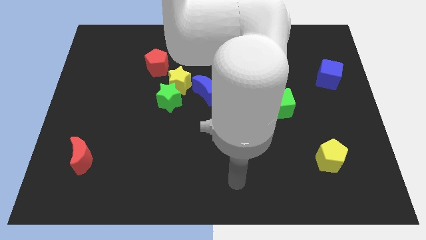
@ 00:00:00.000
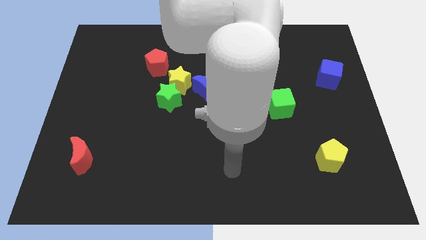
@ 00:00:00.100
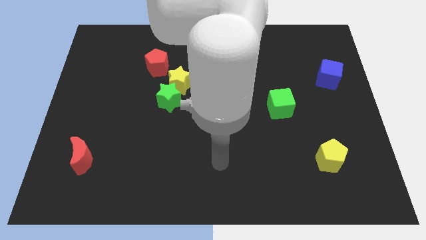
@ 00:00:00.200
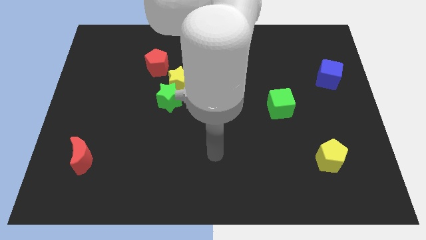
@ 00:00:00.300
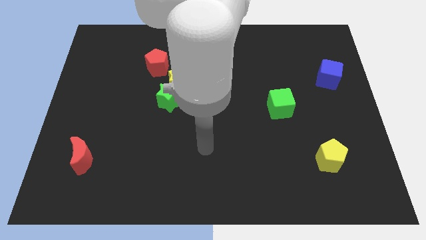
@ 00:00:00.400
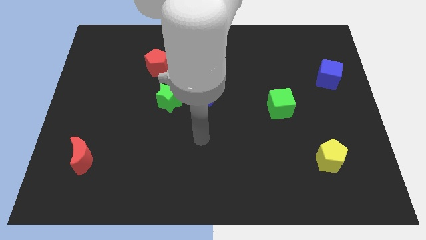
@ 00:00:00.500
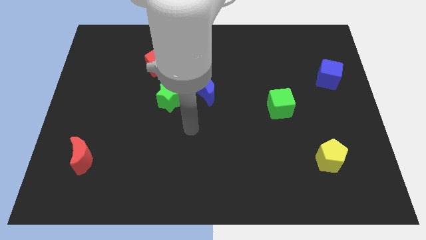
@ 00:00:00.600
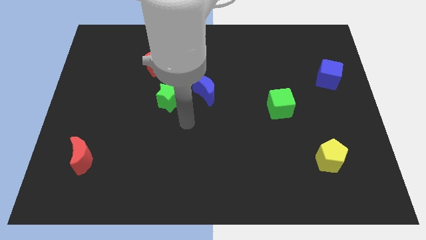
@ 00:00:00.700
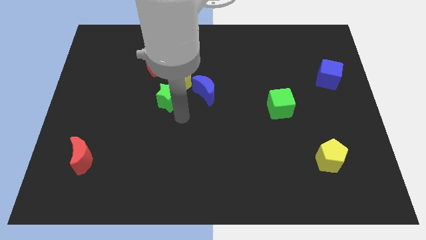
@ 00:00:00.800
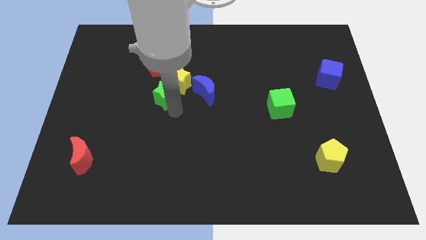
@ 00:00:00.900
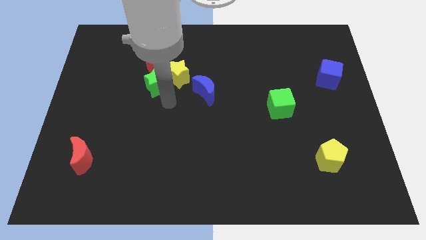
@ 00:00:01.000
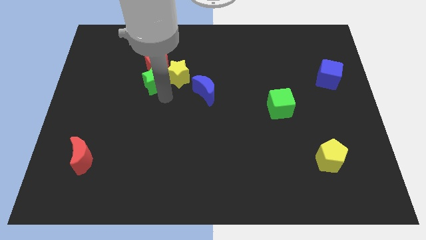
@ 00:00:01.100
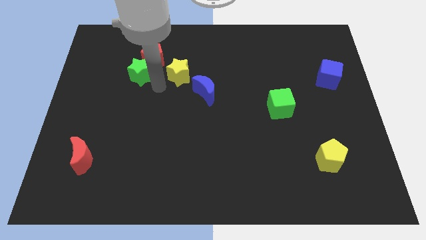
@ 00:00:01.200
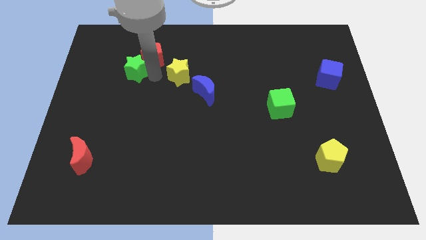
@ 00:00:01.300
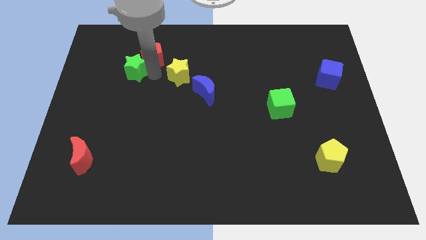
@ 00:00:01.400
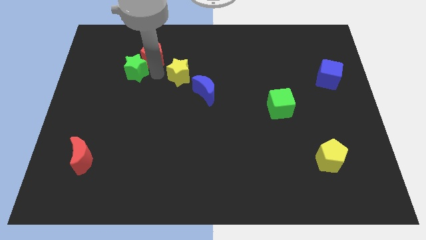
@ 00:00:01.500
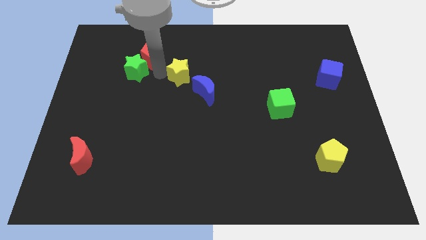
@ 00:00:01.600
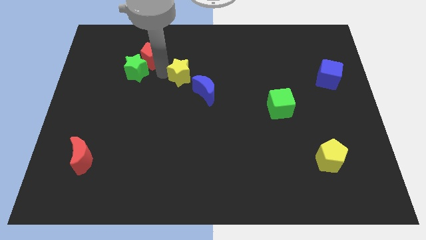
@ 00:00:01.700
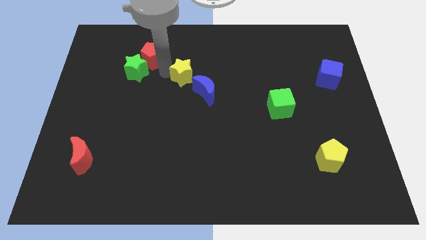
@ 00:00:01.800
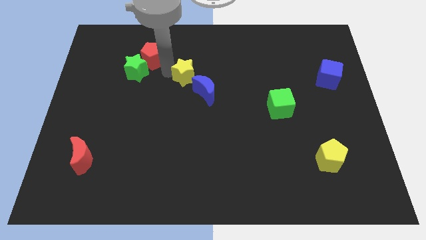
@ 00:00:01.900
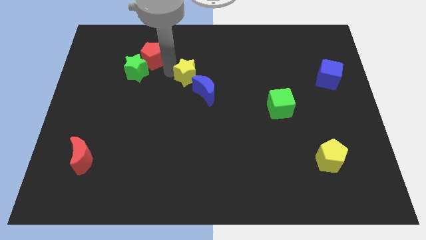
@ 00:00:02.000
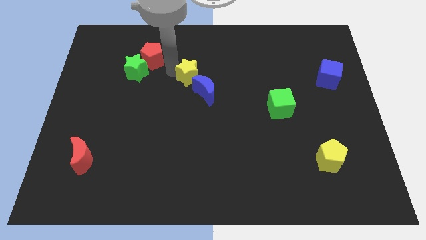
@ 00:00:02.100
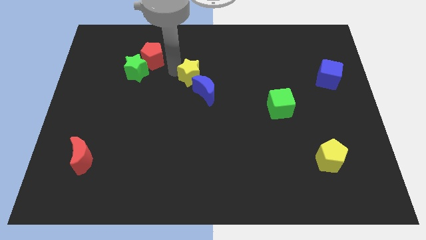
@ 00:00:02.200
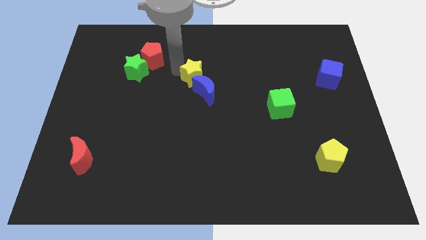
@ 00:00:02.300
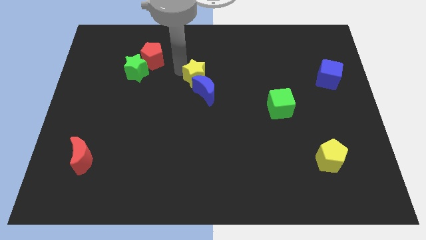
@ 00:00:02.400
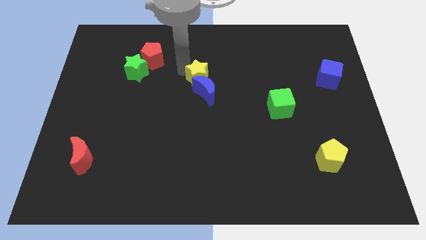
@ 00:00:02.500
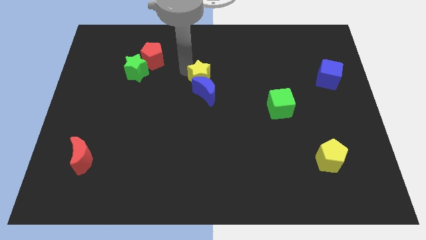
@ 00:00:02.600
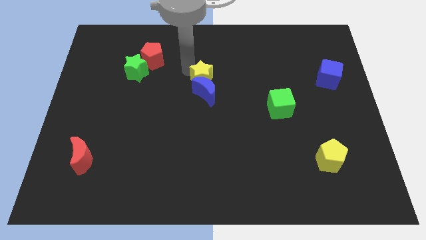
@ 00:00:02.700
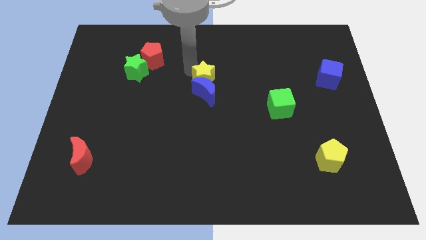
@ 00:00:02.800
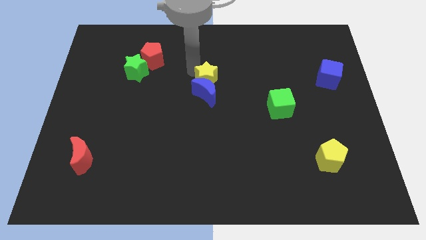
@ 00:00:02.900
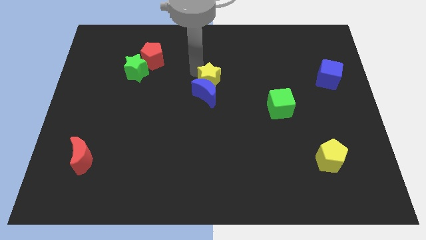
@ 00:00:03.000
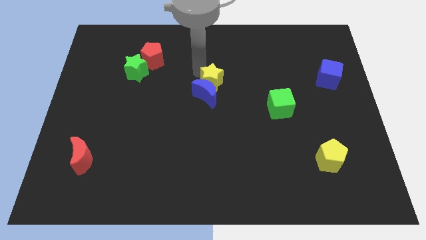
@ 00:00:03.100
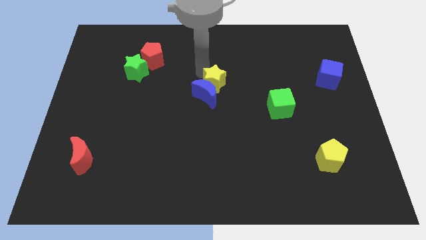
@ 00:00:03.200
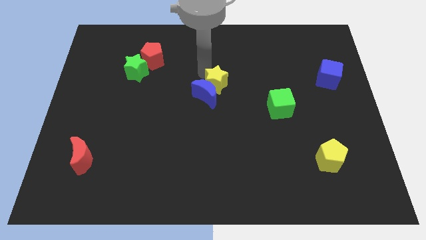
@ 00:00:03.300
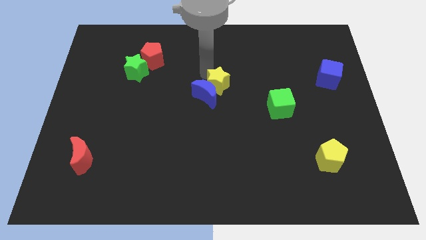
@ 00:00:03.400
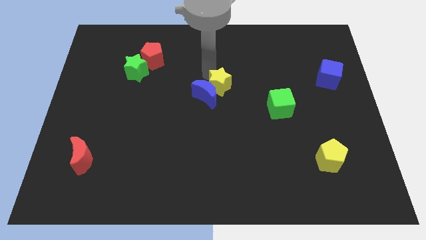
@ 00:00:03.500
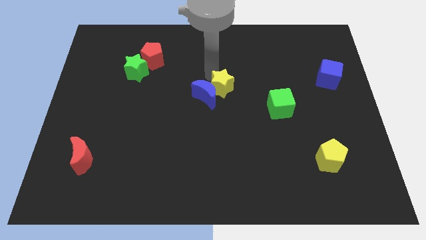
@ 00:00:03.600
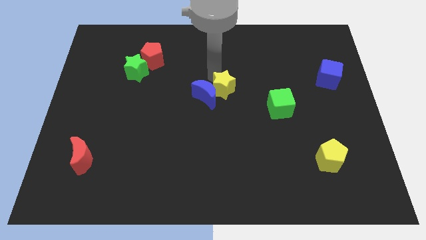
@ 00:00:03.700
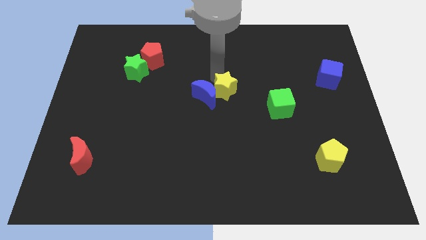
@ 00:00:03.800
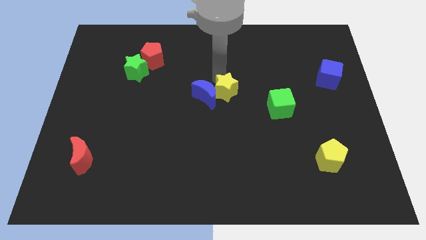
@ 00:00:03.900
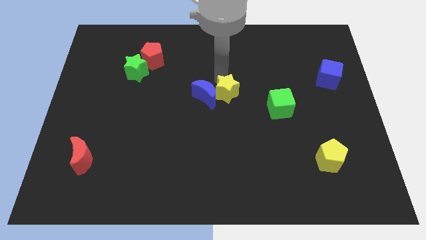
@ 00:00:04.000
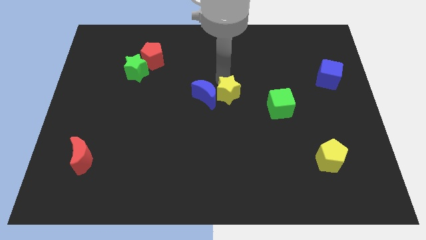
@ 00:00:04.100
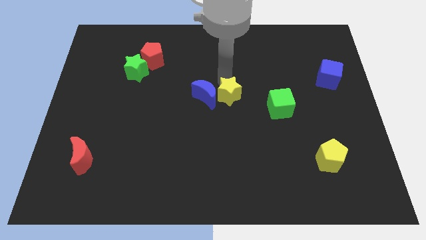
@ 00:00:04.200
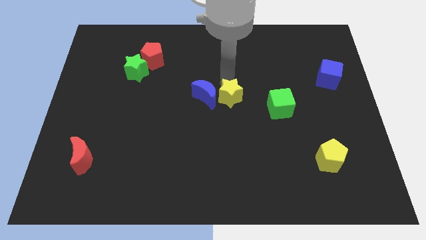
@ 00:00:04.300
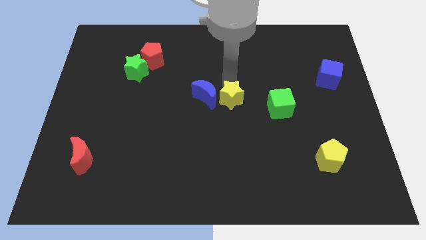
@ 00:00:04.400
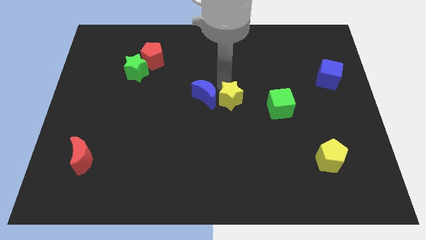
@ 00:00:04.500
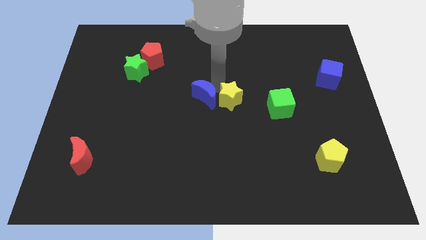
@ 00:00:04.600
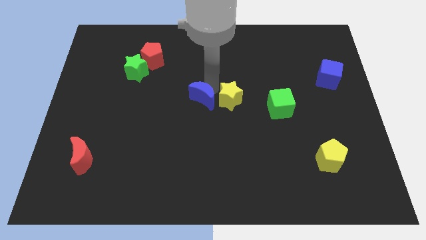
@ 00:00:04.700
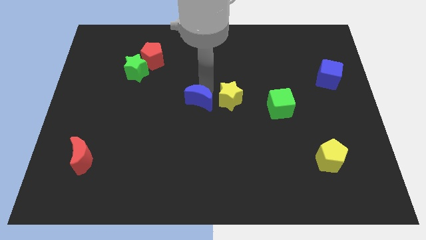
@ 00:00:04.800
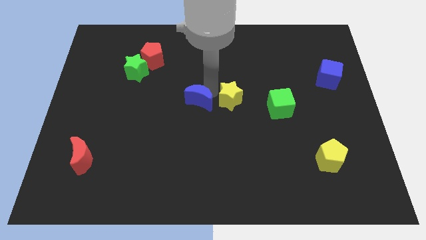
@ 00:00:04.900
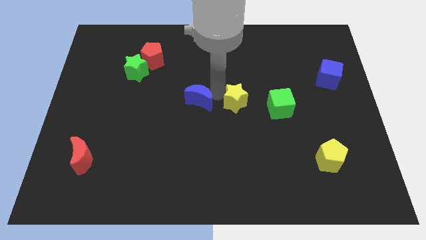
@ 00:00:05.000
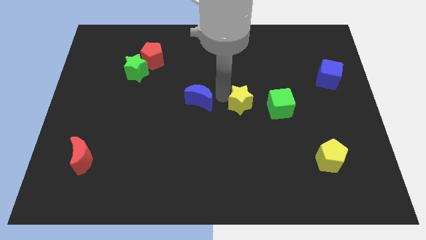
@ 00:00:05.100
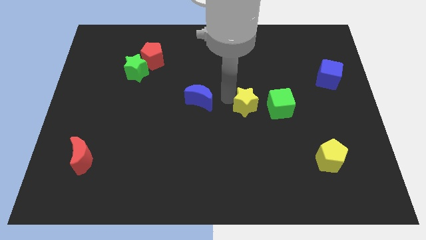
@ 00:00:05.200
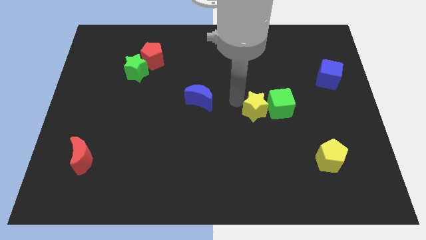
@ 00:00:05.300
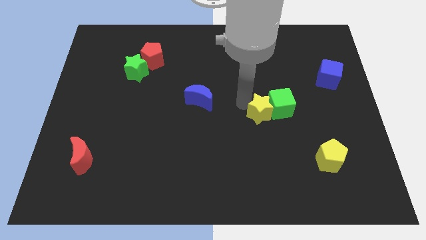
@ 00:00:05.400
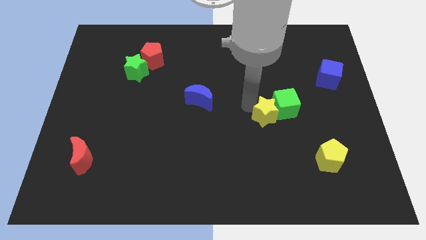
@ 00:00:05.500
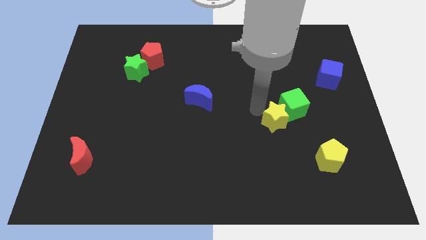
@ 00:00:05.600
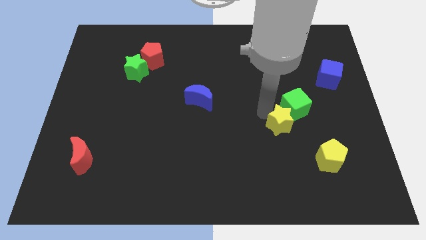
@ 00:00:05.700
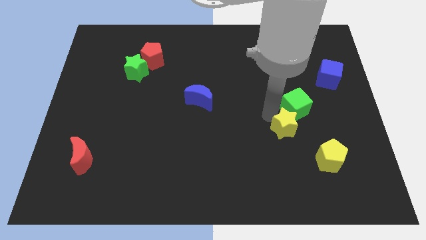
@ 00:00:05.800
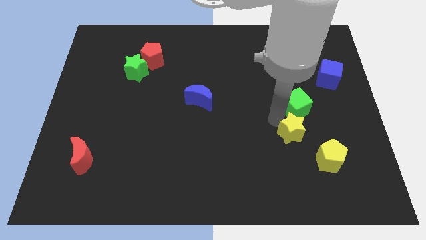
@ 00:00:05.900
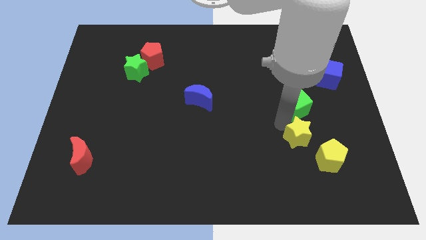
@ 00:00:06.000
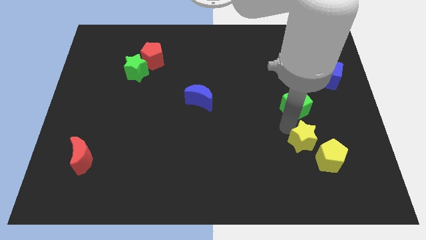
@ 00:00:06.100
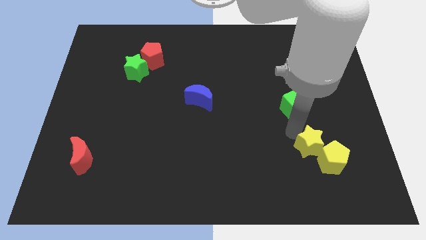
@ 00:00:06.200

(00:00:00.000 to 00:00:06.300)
push the yellow star next to the yellow pentagon
